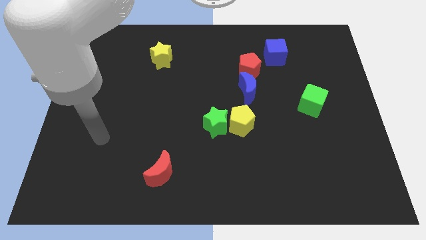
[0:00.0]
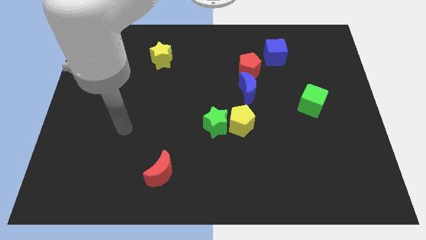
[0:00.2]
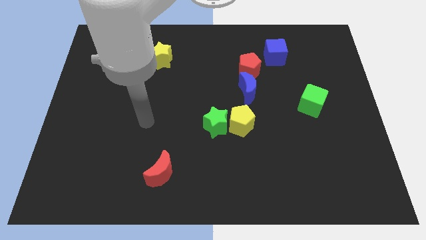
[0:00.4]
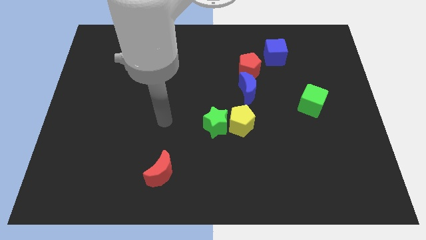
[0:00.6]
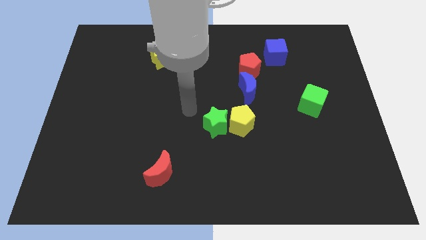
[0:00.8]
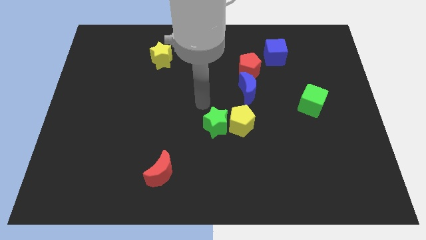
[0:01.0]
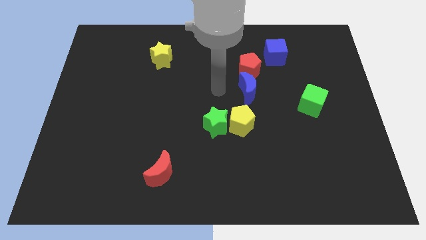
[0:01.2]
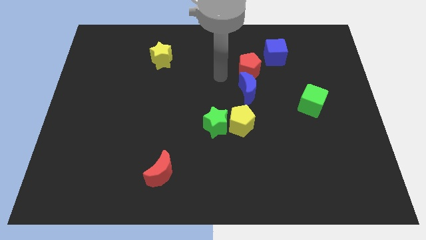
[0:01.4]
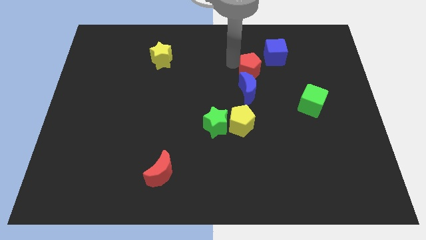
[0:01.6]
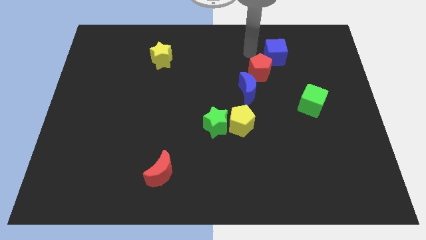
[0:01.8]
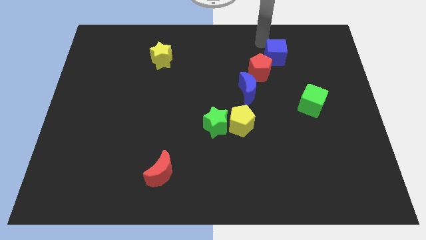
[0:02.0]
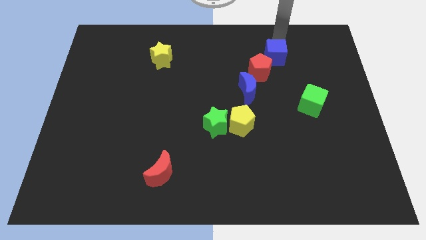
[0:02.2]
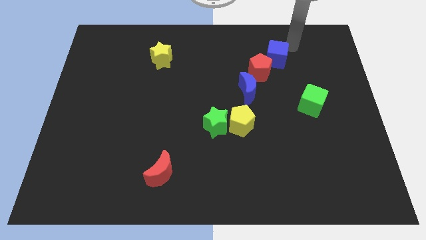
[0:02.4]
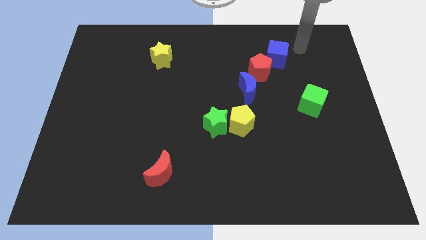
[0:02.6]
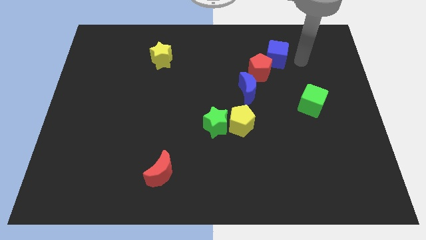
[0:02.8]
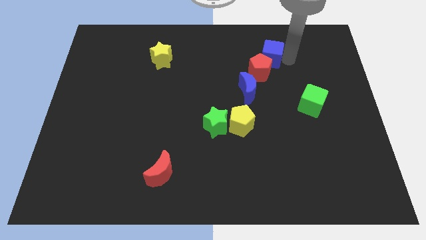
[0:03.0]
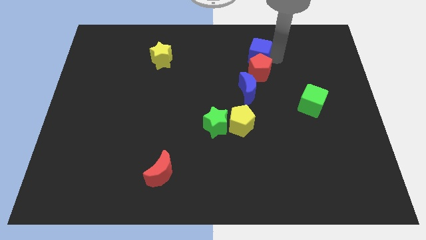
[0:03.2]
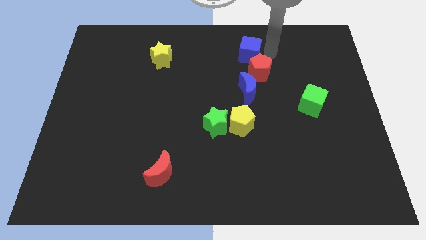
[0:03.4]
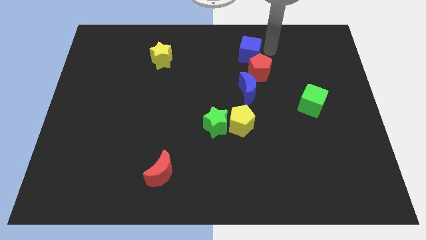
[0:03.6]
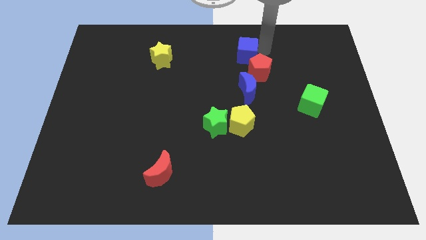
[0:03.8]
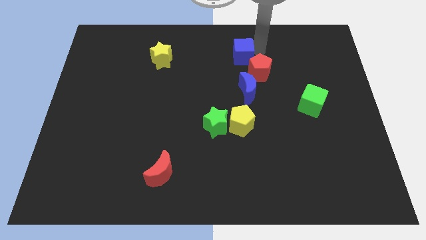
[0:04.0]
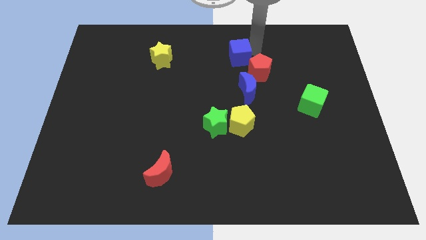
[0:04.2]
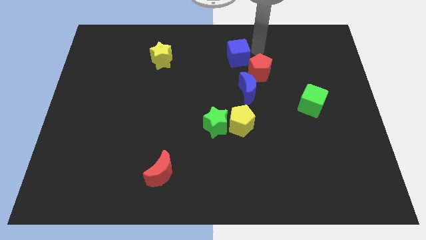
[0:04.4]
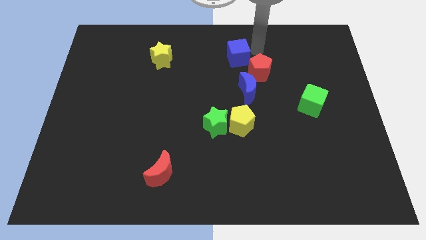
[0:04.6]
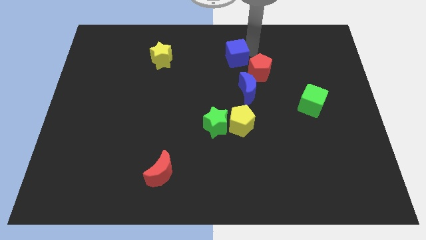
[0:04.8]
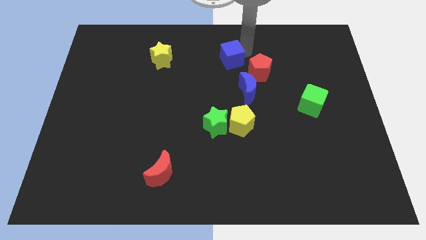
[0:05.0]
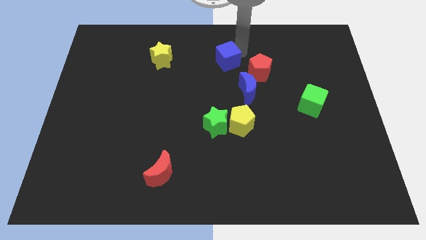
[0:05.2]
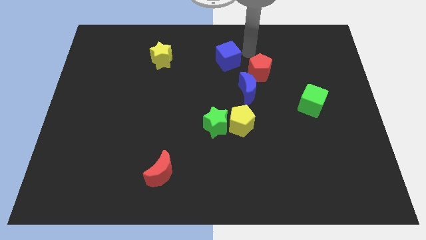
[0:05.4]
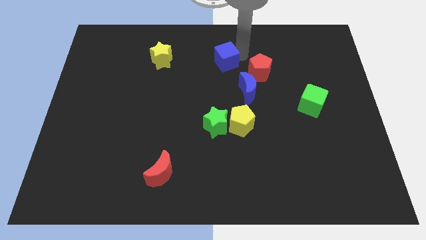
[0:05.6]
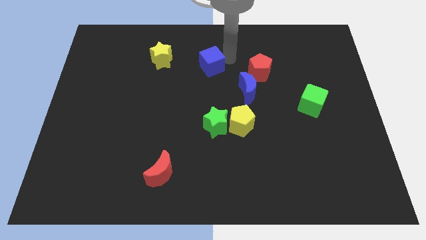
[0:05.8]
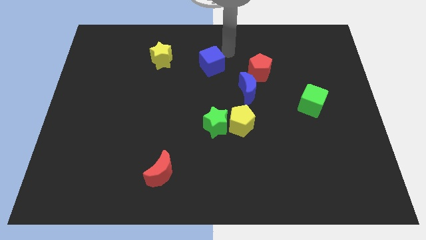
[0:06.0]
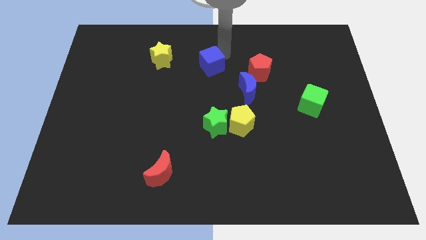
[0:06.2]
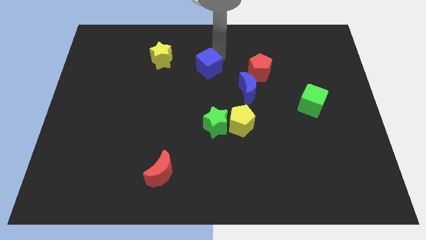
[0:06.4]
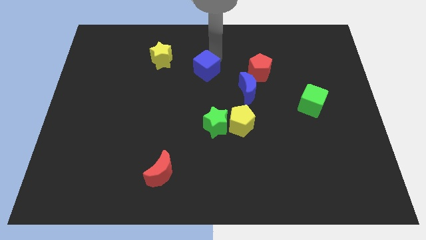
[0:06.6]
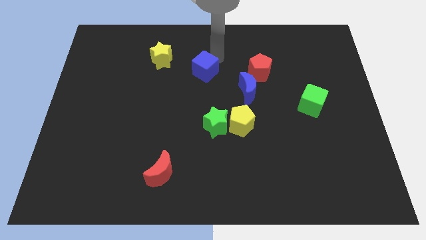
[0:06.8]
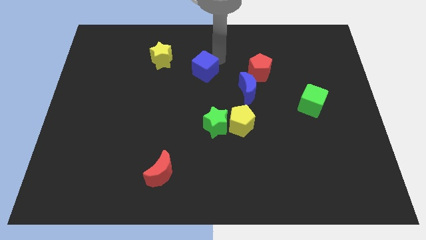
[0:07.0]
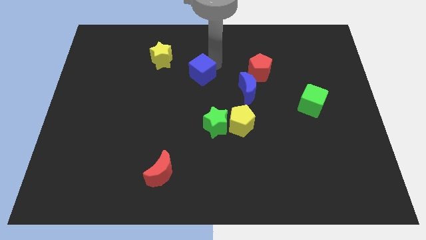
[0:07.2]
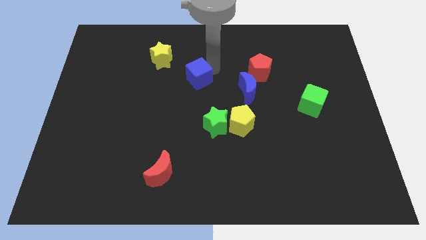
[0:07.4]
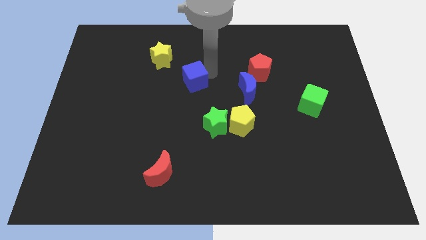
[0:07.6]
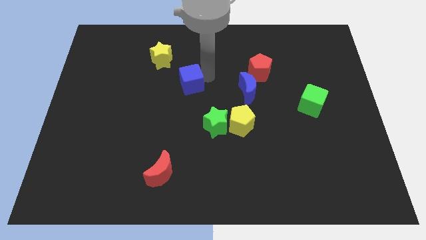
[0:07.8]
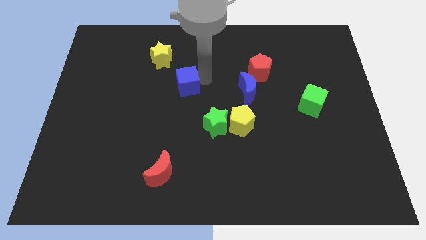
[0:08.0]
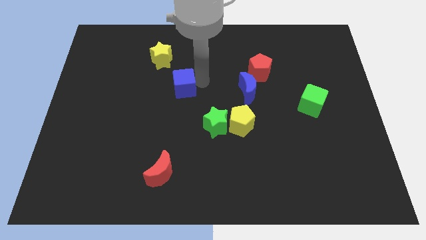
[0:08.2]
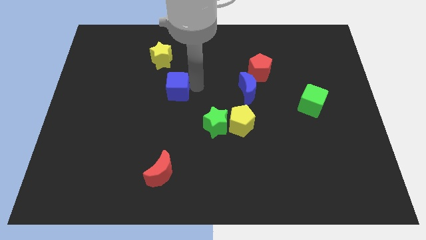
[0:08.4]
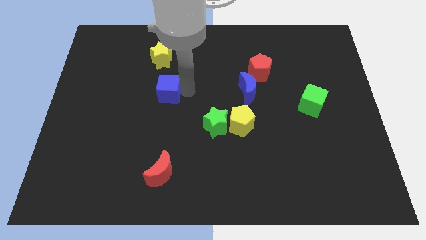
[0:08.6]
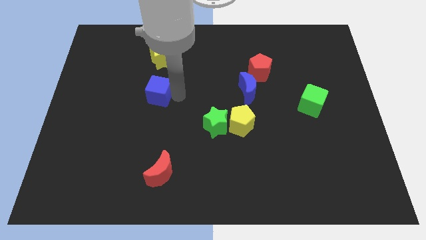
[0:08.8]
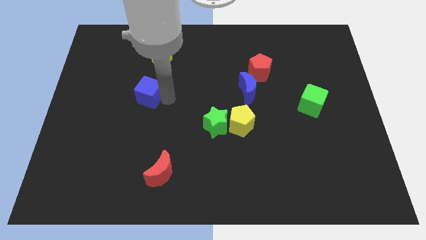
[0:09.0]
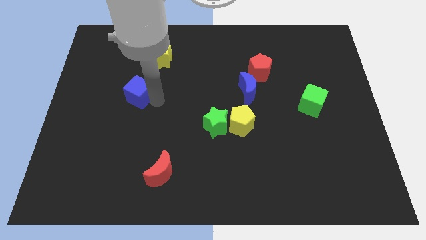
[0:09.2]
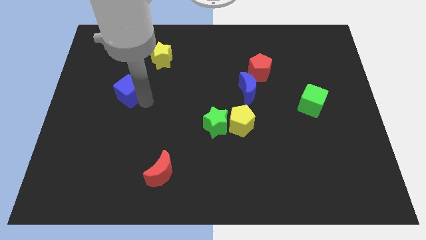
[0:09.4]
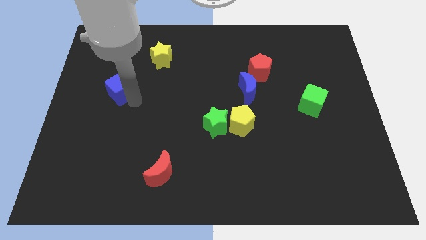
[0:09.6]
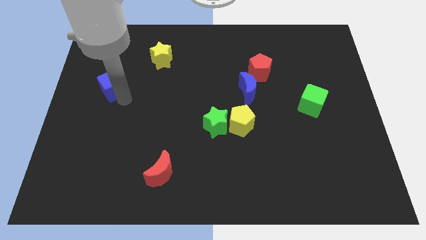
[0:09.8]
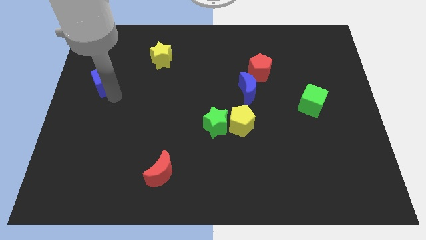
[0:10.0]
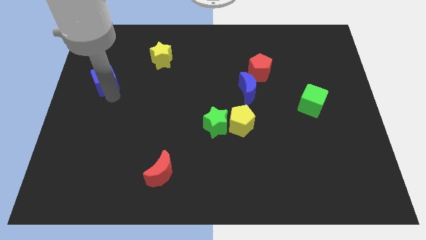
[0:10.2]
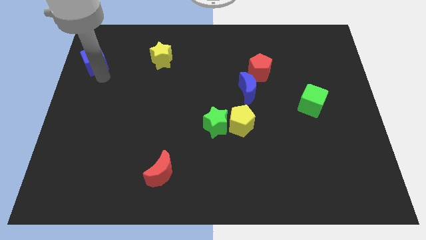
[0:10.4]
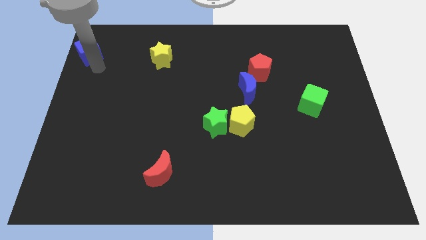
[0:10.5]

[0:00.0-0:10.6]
move the blue cube to the upper left corner
